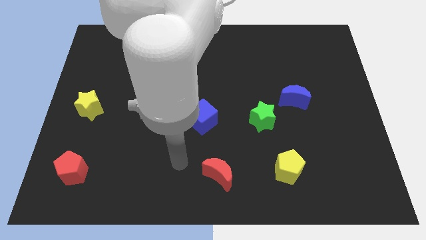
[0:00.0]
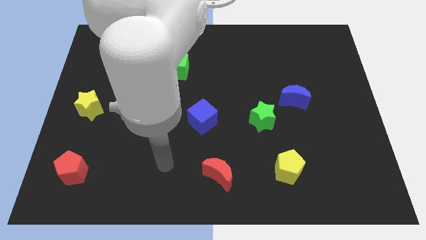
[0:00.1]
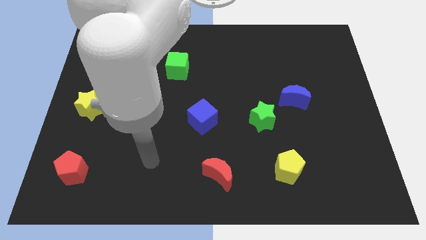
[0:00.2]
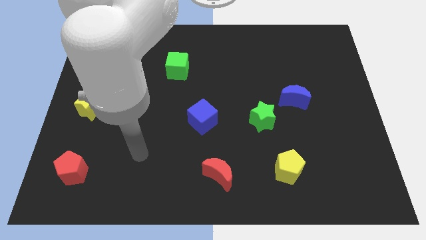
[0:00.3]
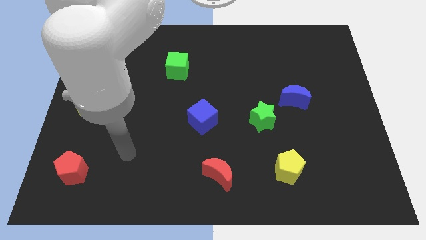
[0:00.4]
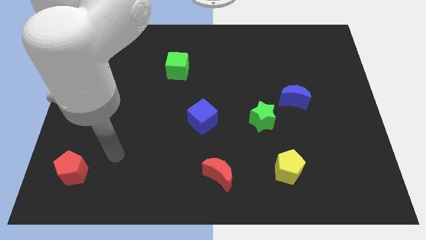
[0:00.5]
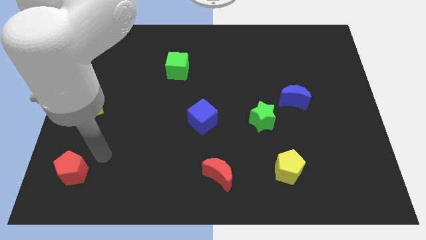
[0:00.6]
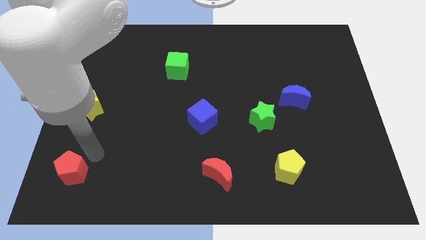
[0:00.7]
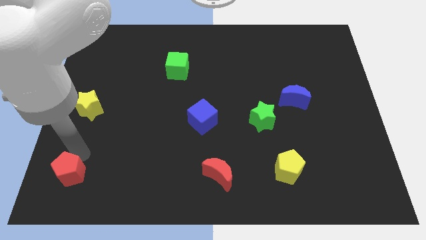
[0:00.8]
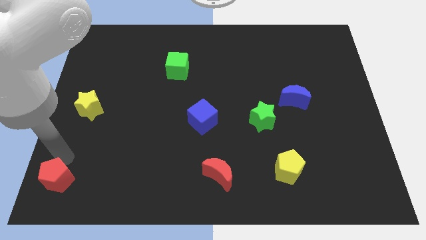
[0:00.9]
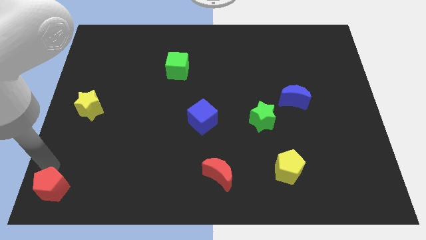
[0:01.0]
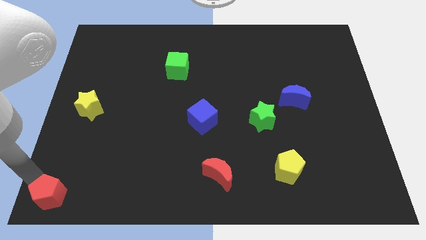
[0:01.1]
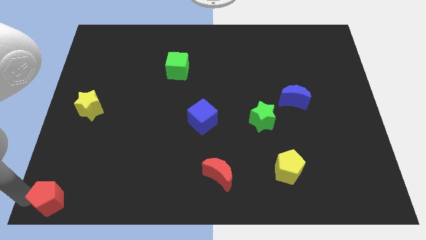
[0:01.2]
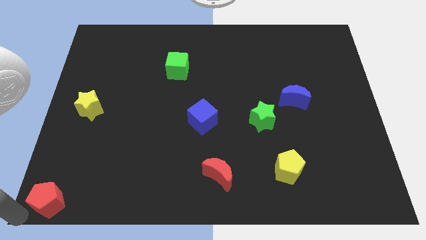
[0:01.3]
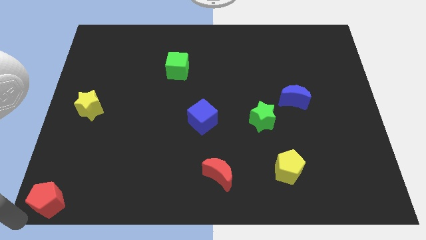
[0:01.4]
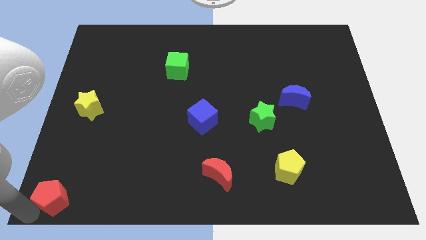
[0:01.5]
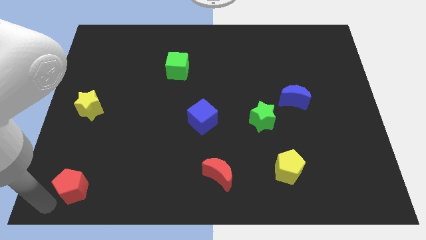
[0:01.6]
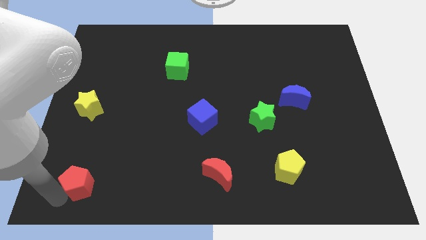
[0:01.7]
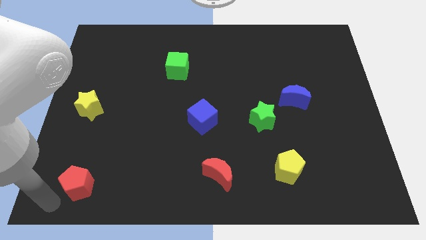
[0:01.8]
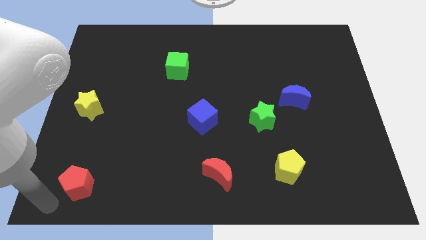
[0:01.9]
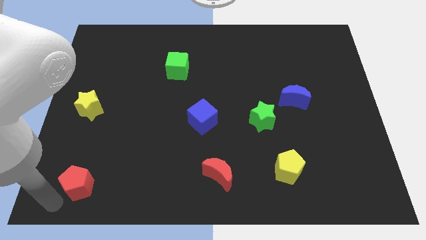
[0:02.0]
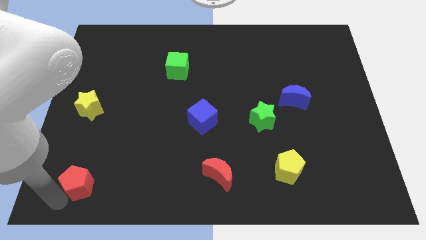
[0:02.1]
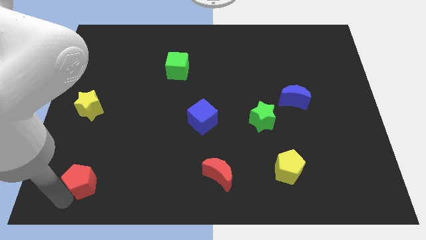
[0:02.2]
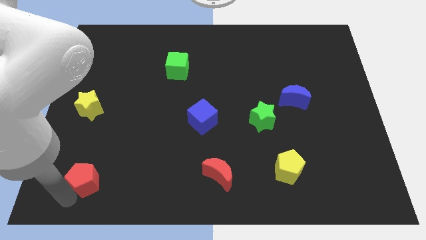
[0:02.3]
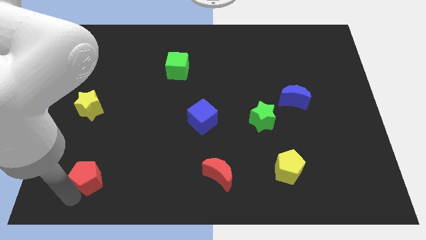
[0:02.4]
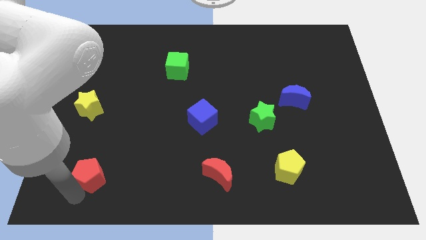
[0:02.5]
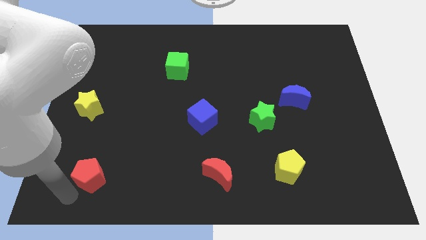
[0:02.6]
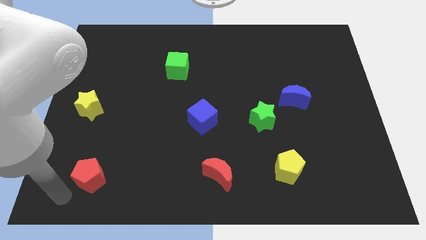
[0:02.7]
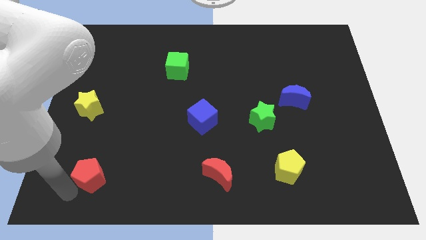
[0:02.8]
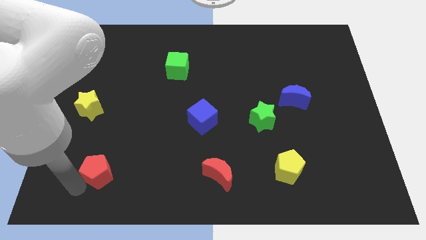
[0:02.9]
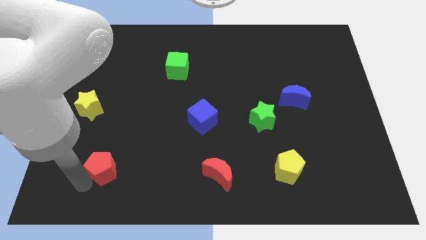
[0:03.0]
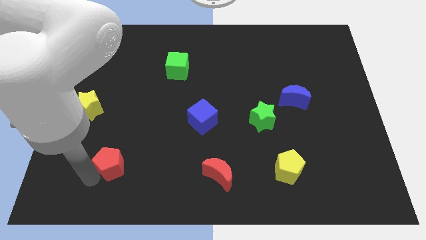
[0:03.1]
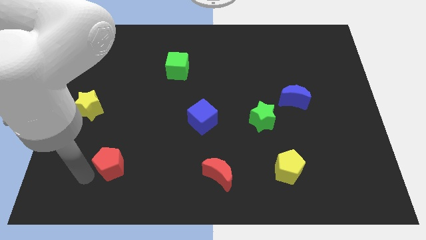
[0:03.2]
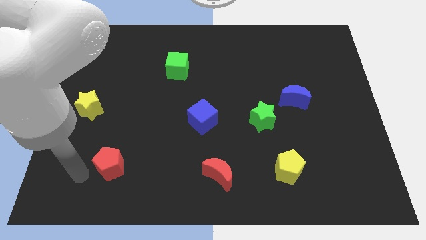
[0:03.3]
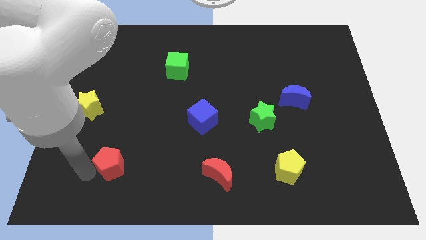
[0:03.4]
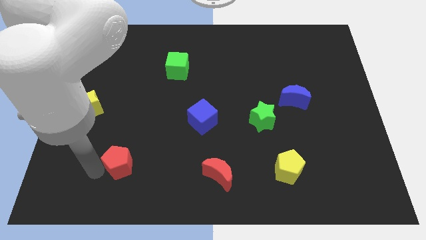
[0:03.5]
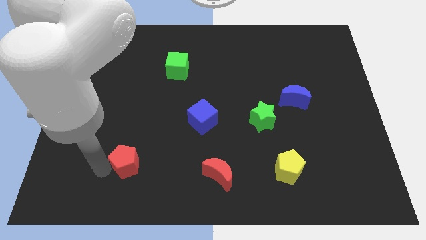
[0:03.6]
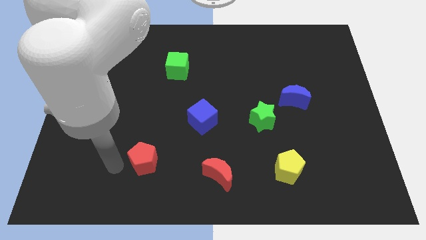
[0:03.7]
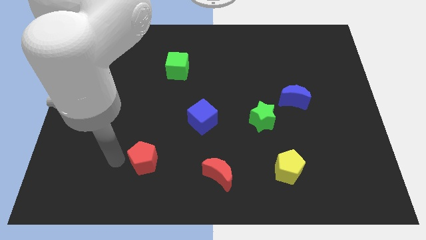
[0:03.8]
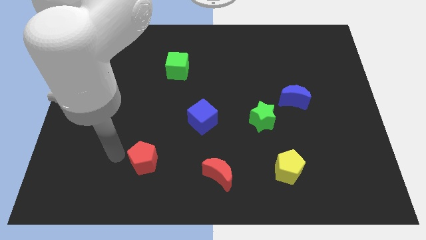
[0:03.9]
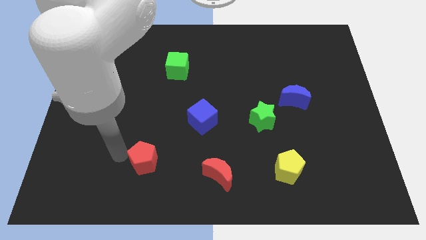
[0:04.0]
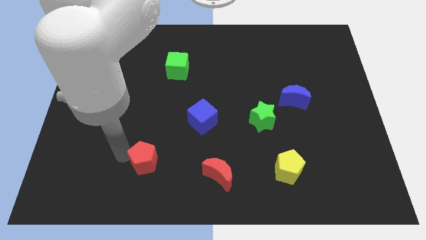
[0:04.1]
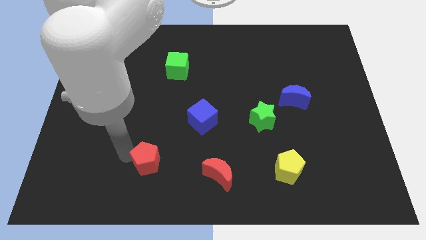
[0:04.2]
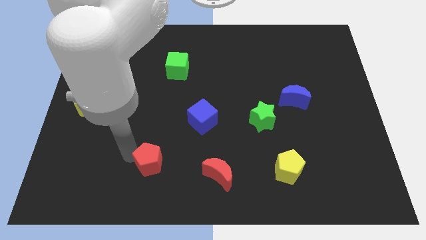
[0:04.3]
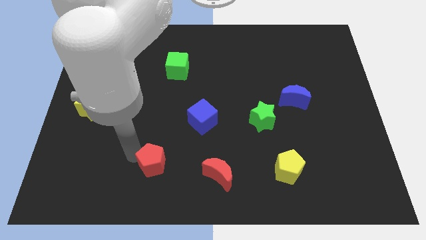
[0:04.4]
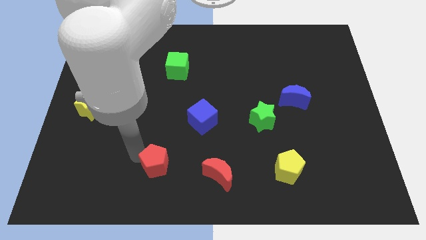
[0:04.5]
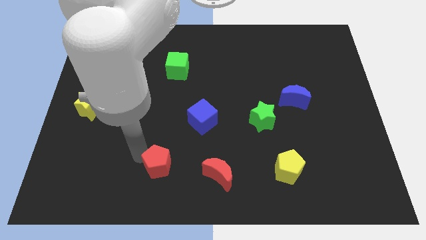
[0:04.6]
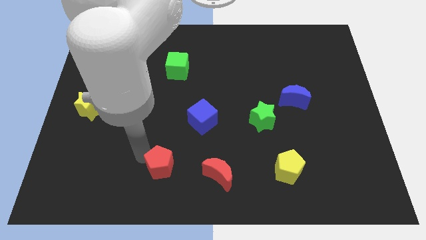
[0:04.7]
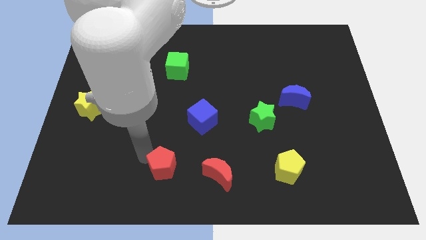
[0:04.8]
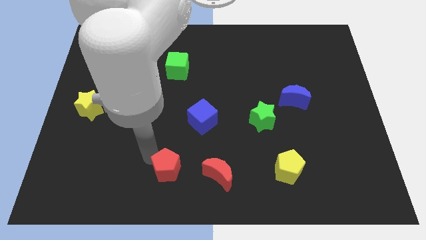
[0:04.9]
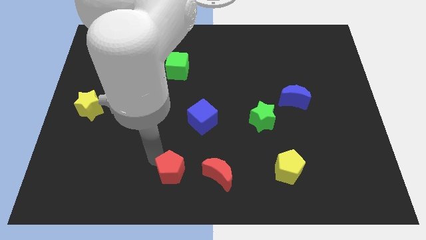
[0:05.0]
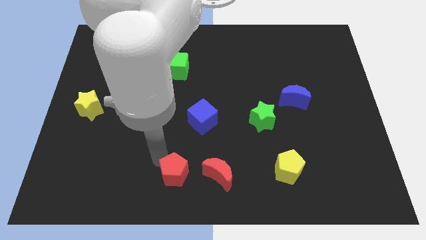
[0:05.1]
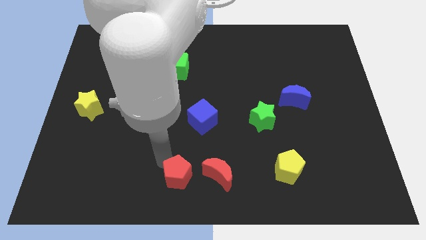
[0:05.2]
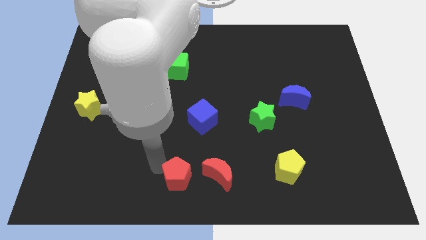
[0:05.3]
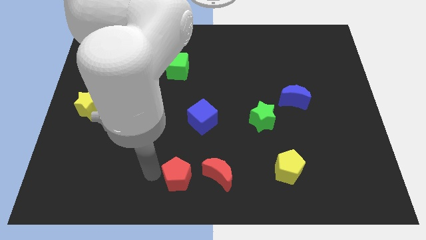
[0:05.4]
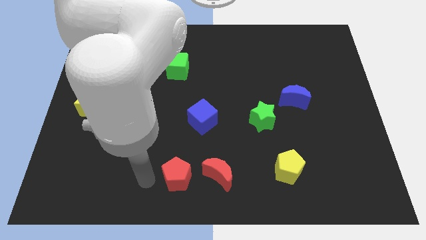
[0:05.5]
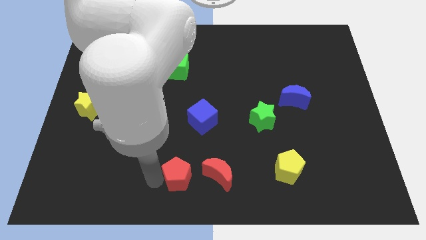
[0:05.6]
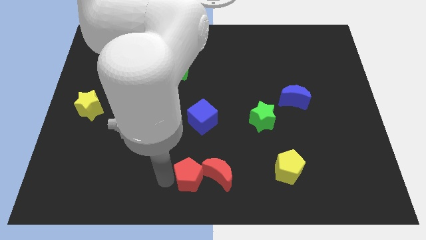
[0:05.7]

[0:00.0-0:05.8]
put the red pentagon close to the red moon

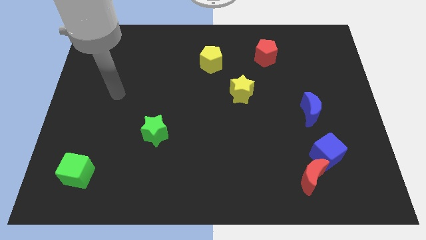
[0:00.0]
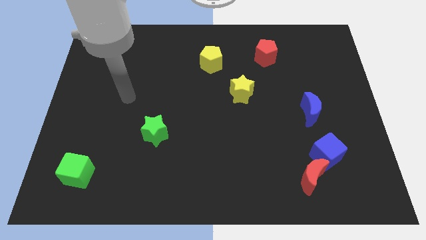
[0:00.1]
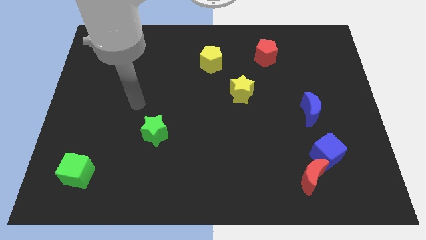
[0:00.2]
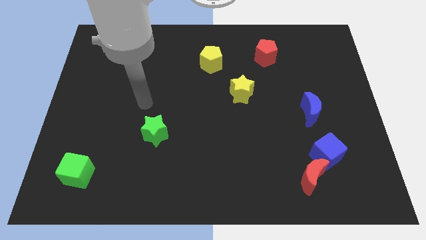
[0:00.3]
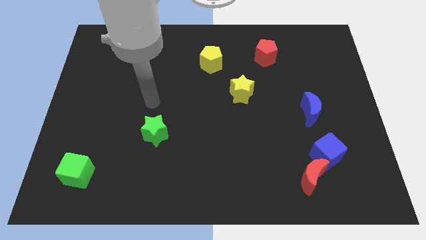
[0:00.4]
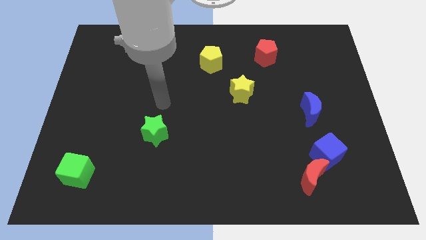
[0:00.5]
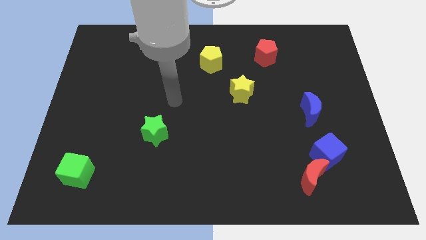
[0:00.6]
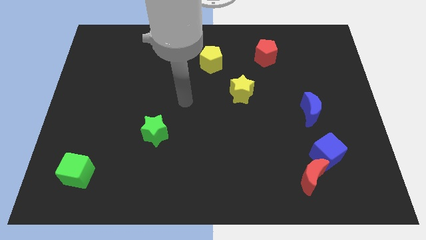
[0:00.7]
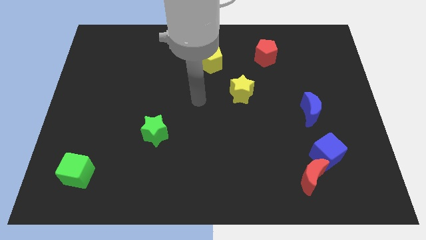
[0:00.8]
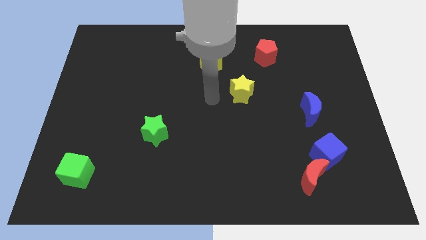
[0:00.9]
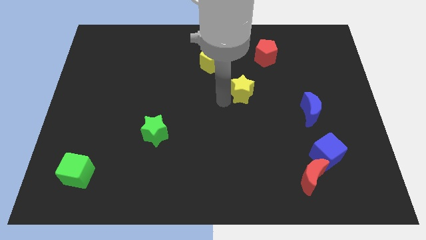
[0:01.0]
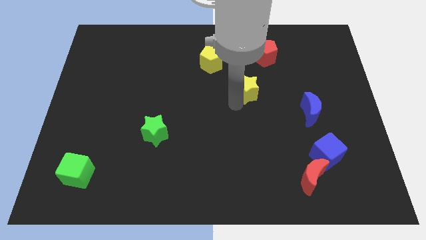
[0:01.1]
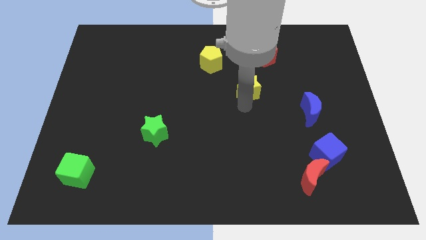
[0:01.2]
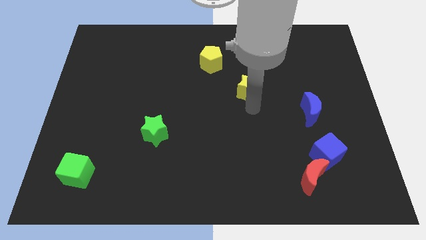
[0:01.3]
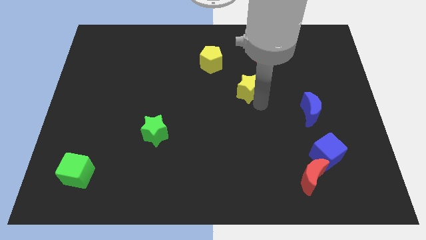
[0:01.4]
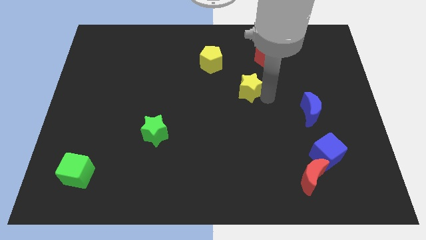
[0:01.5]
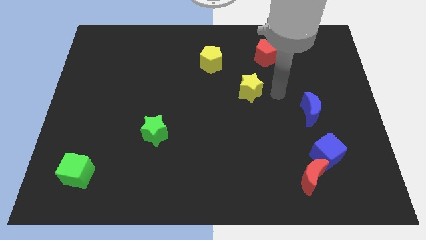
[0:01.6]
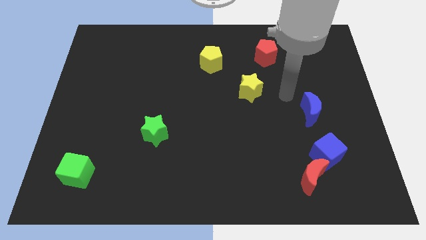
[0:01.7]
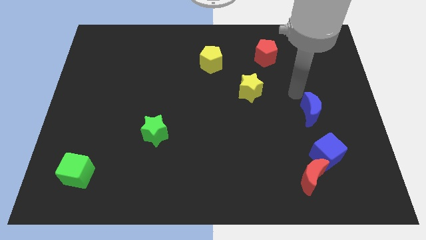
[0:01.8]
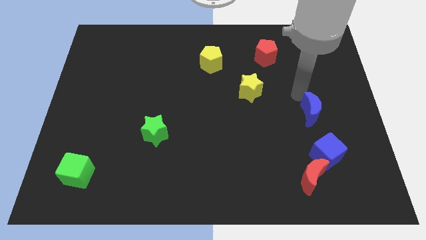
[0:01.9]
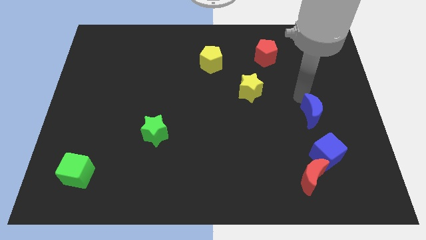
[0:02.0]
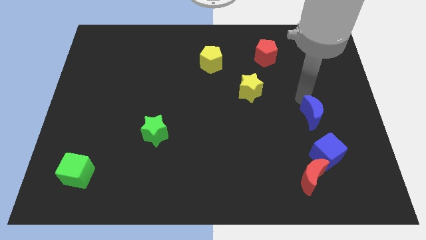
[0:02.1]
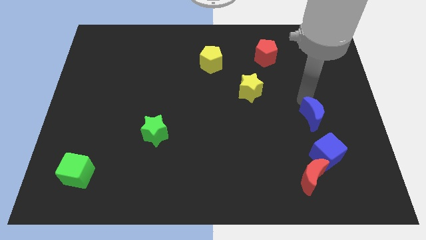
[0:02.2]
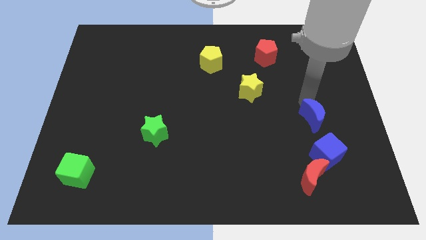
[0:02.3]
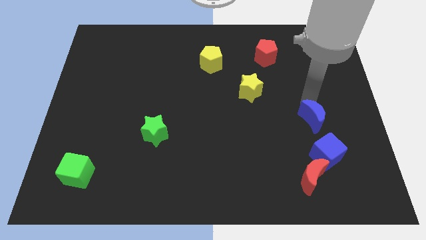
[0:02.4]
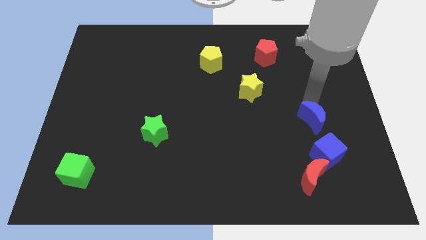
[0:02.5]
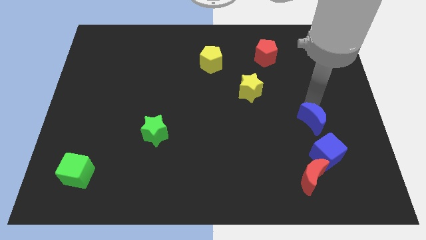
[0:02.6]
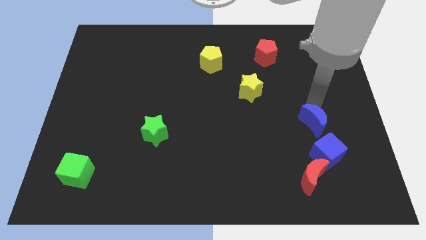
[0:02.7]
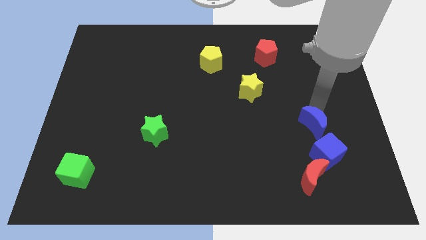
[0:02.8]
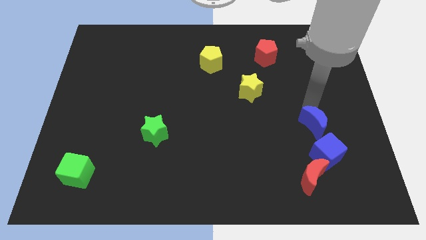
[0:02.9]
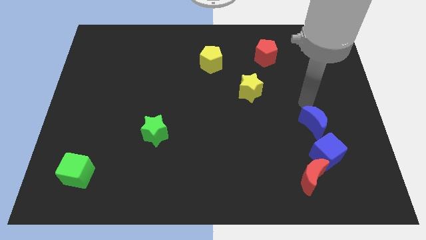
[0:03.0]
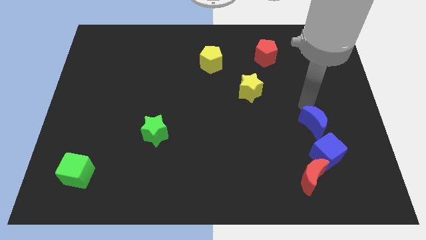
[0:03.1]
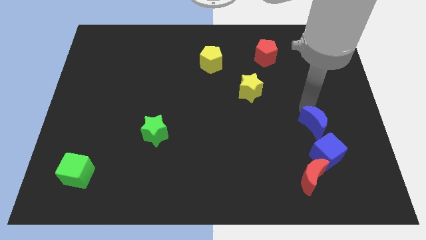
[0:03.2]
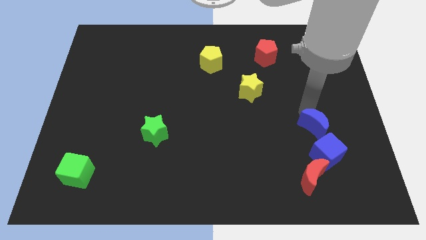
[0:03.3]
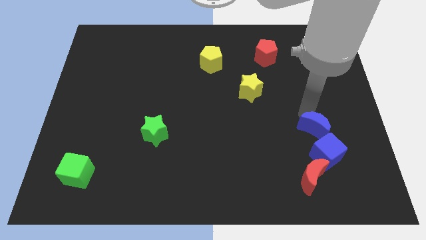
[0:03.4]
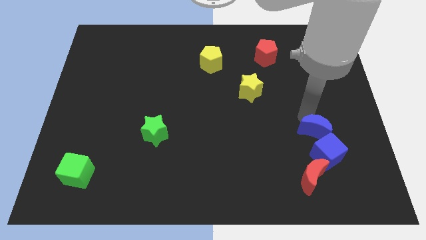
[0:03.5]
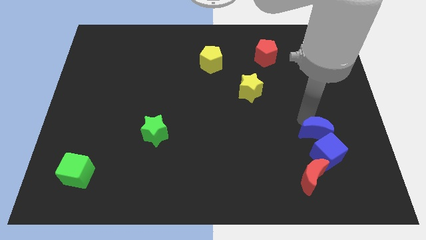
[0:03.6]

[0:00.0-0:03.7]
slide the blue moon next to the blue cube
